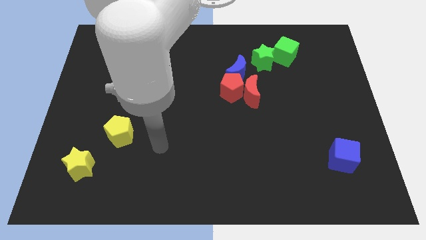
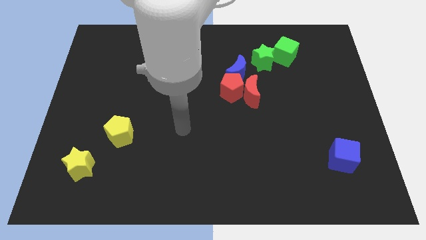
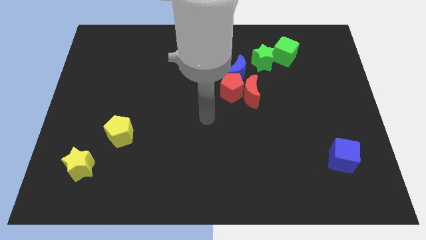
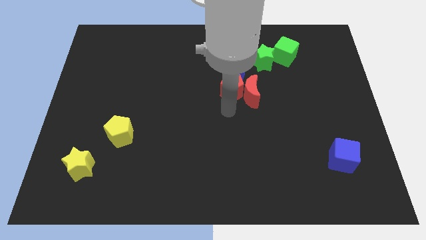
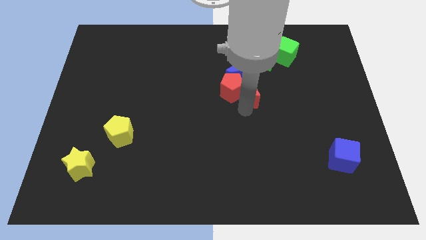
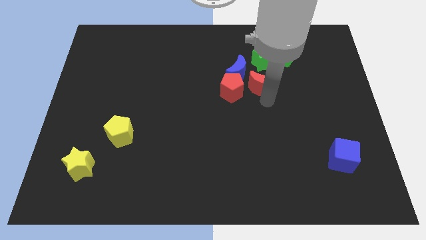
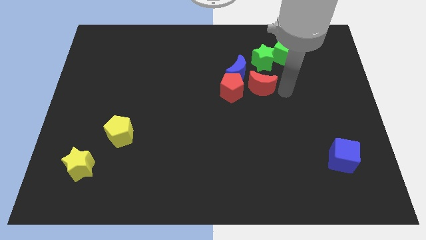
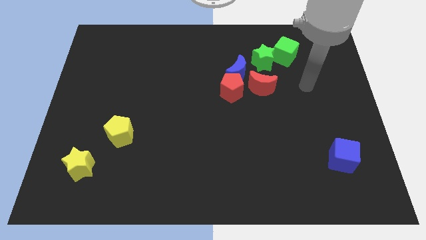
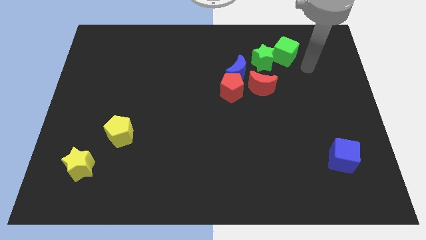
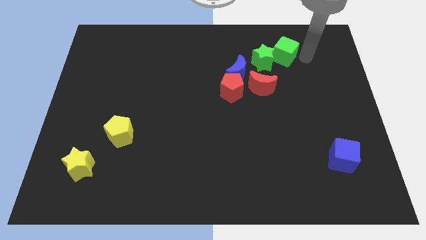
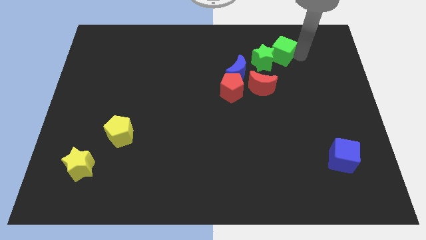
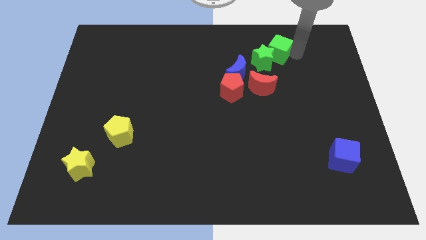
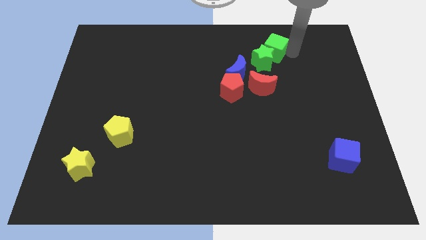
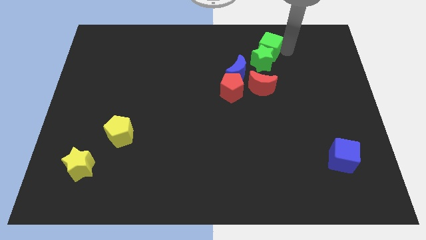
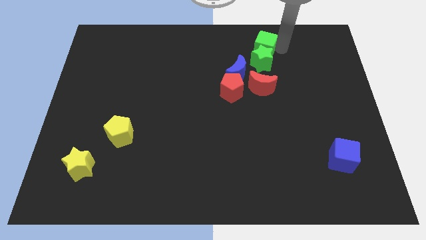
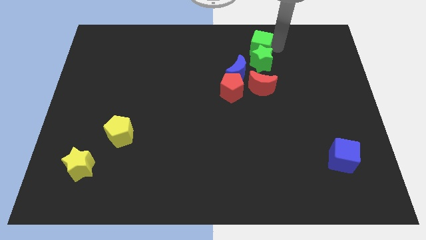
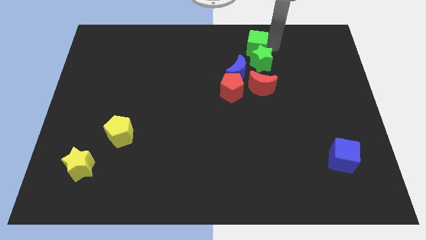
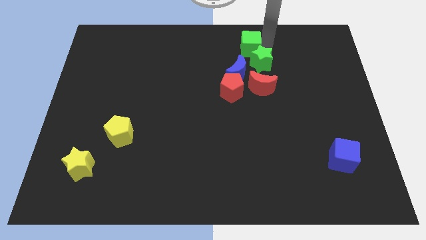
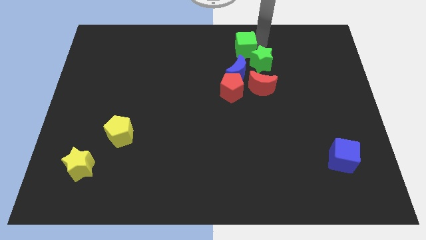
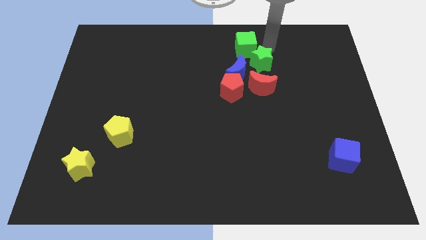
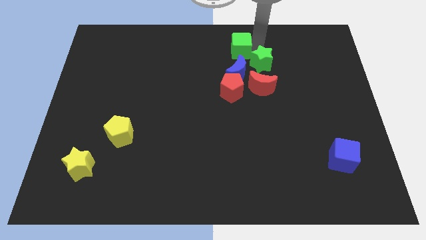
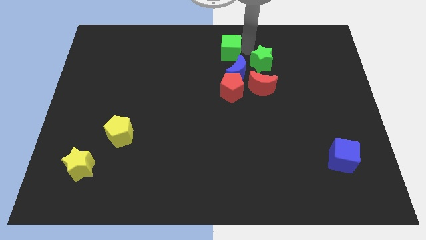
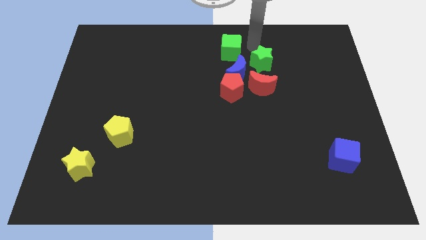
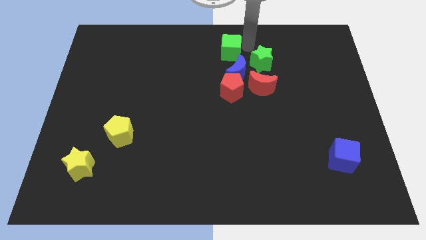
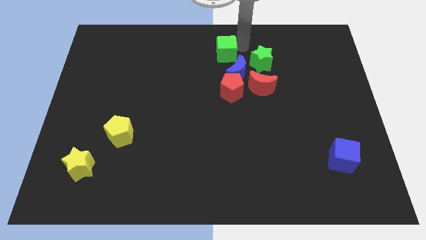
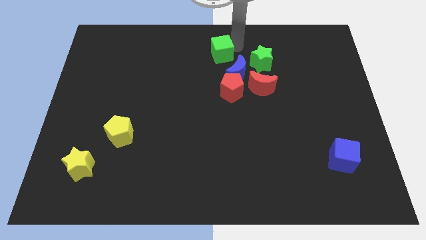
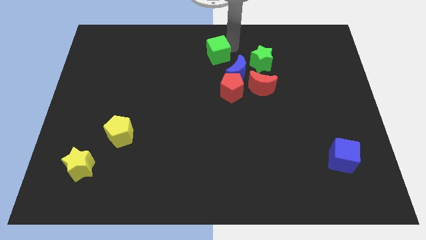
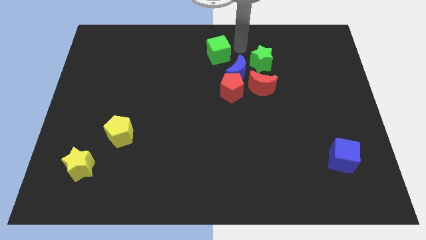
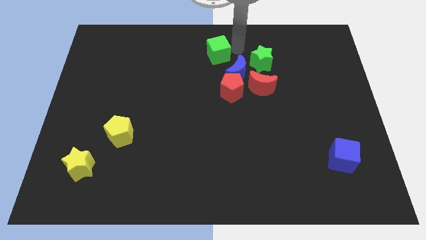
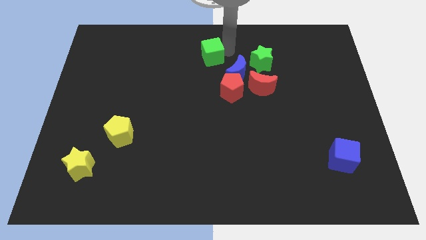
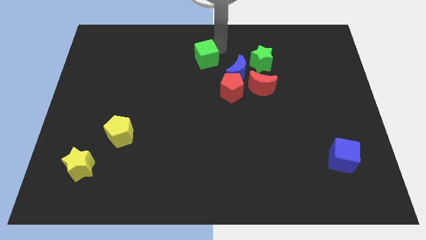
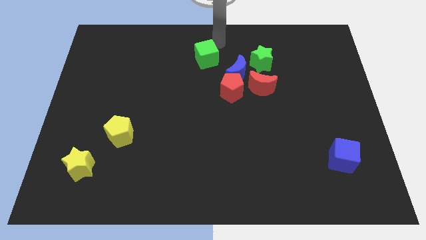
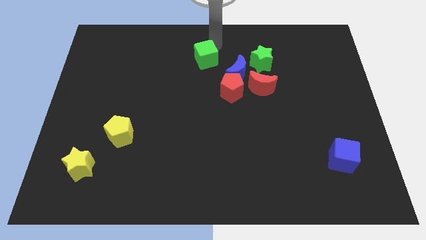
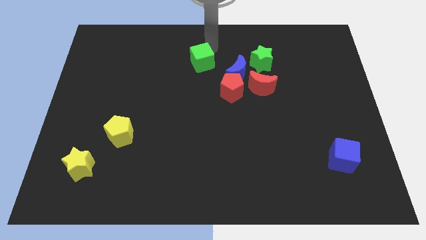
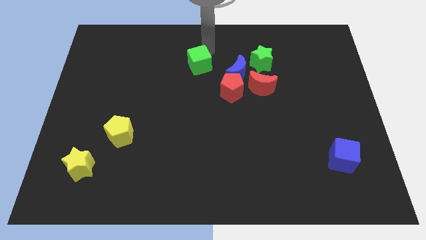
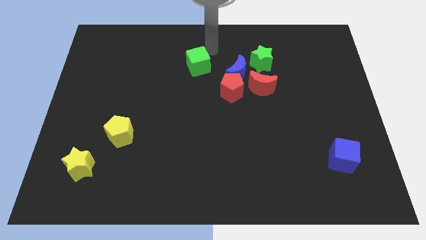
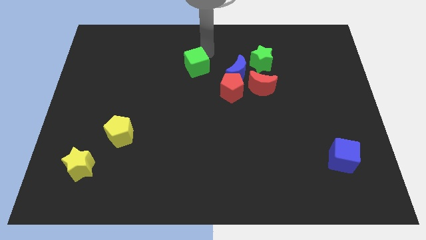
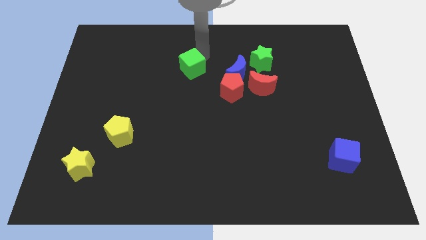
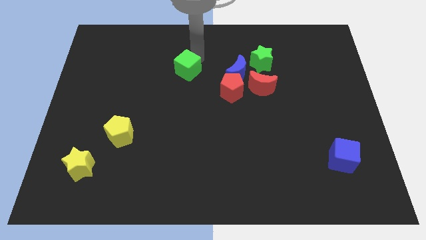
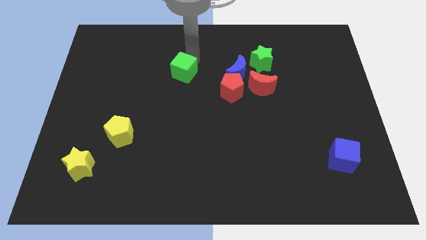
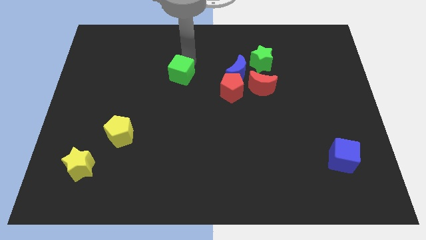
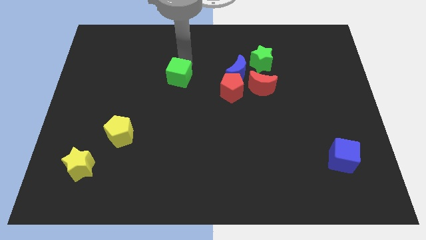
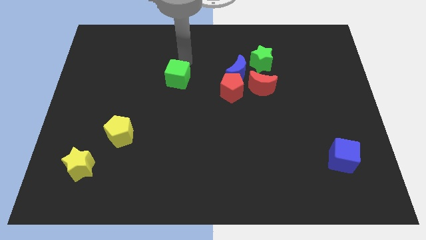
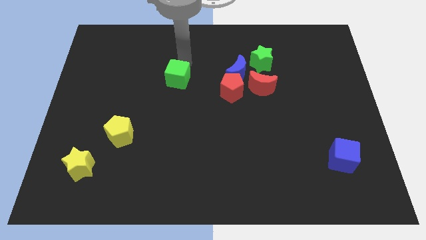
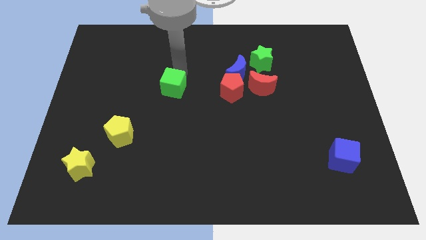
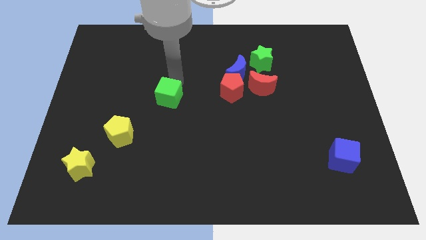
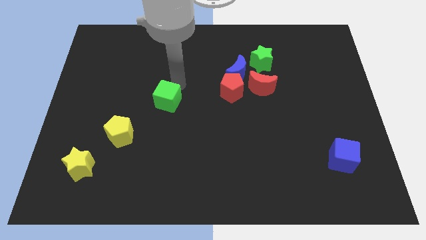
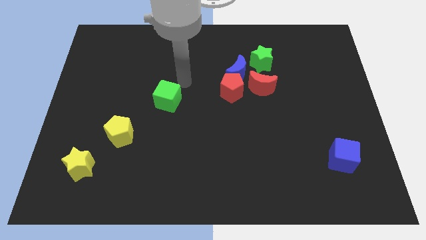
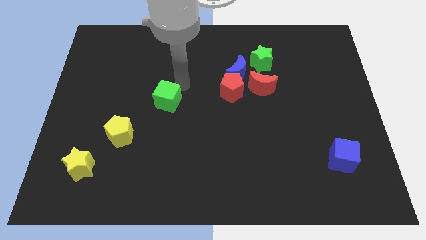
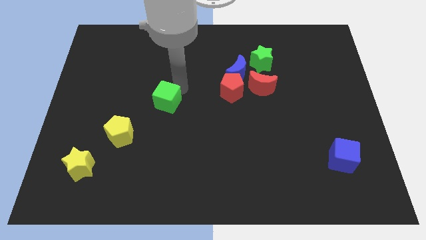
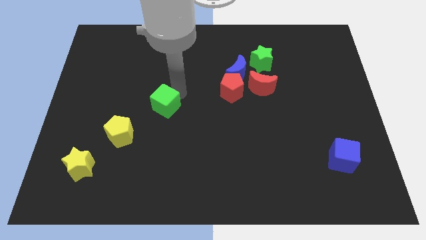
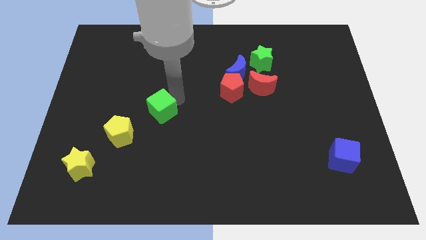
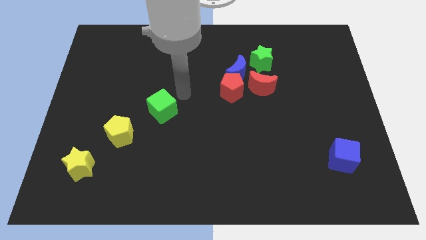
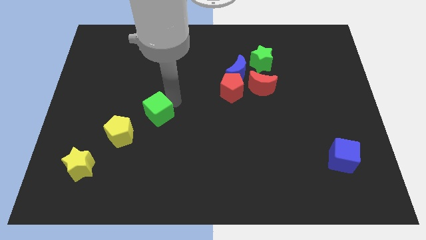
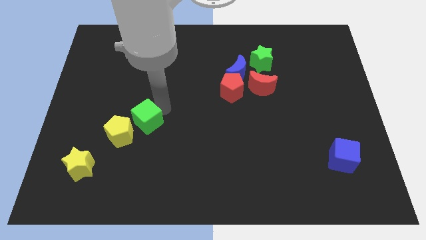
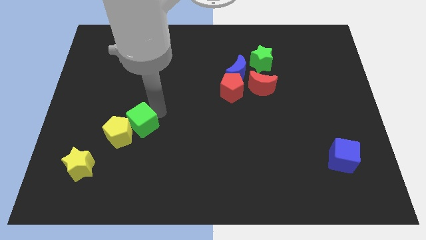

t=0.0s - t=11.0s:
slide the green cube close to the yellow pentagon

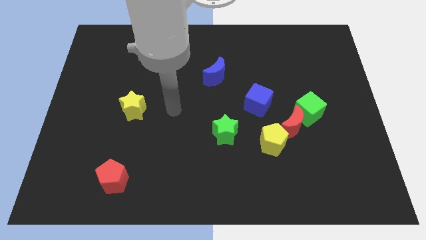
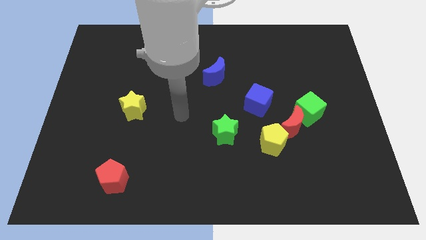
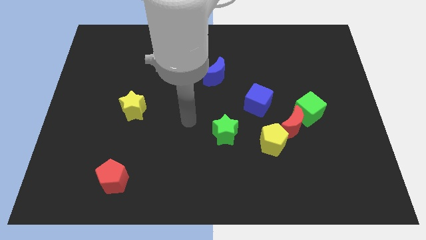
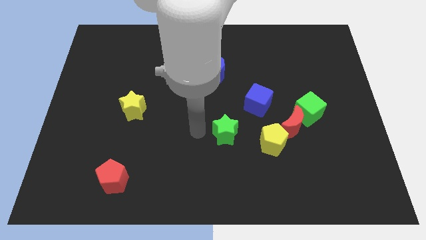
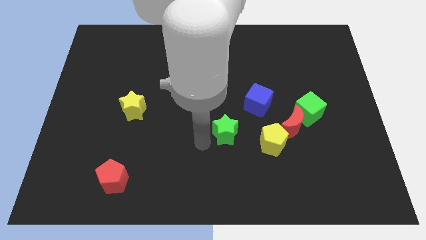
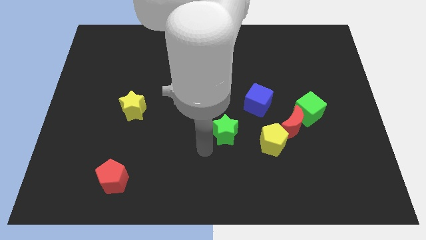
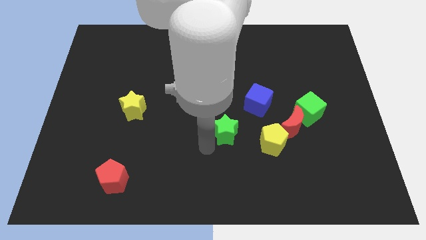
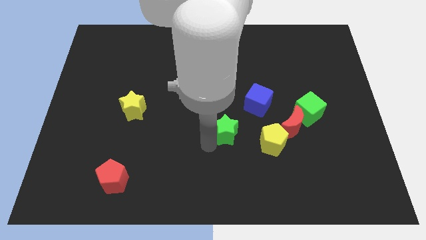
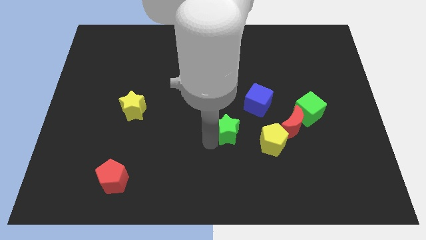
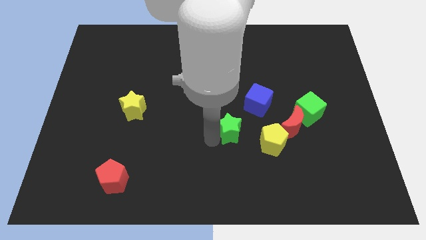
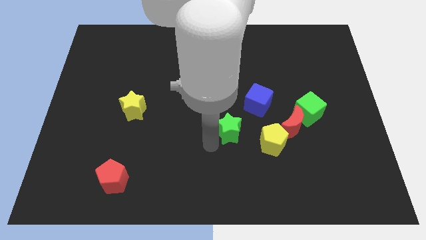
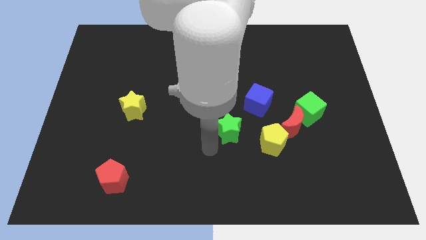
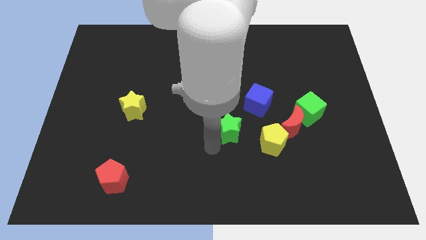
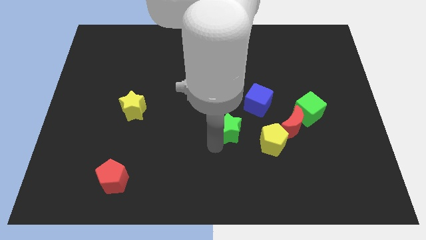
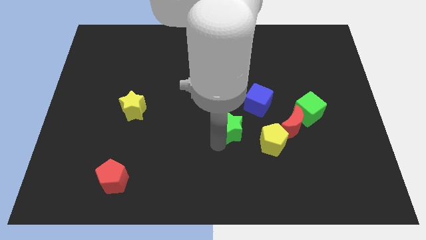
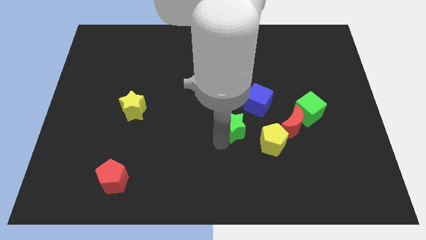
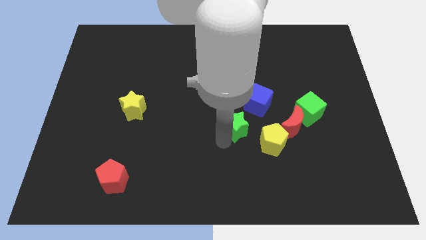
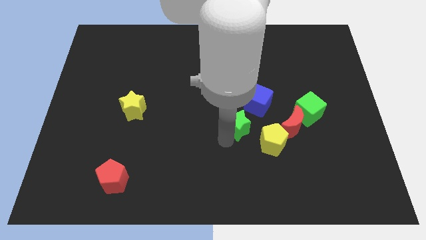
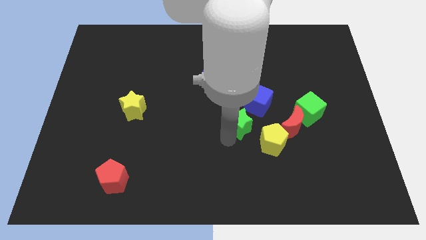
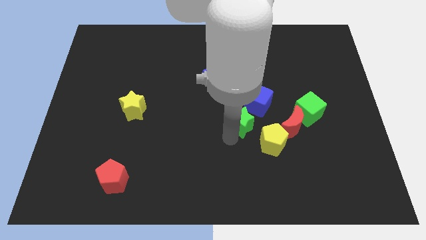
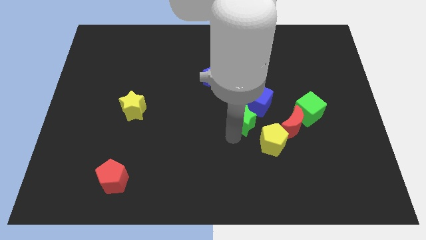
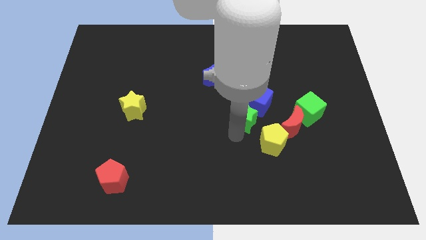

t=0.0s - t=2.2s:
push the green star next to the blue cube
